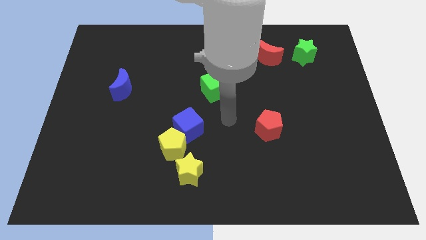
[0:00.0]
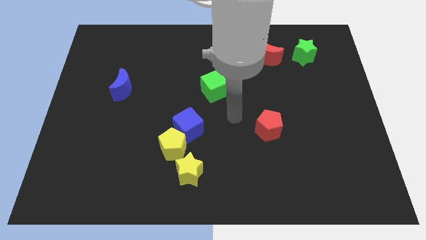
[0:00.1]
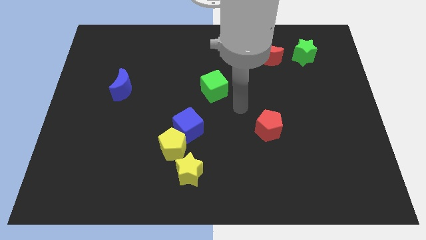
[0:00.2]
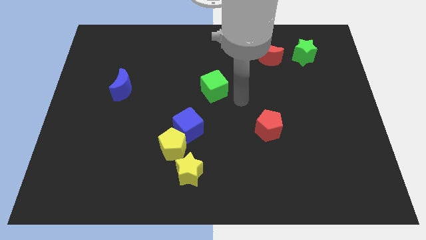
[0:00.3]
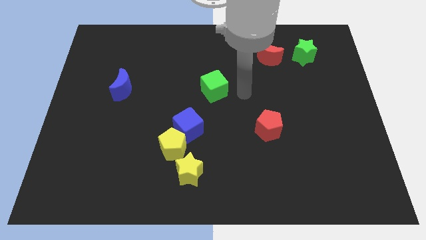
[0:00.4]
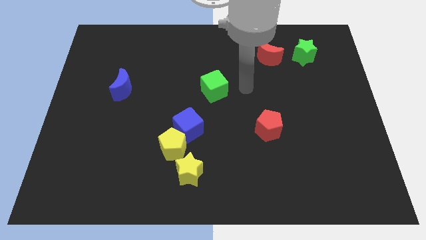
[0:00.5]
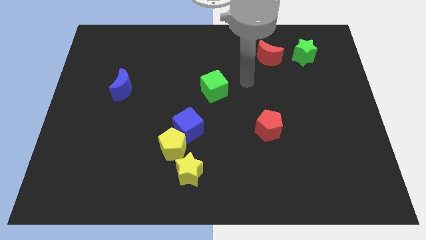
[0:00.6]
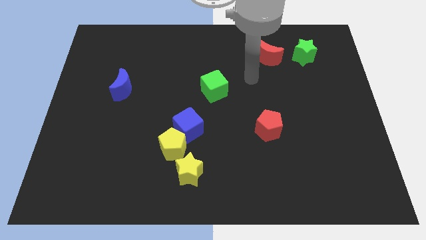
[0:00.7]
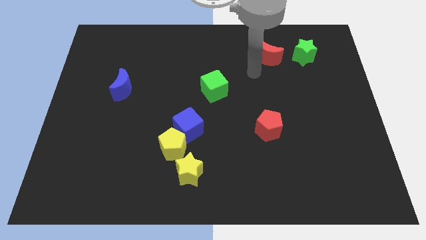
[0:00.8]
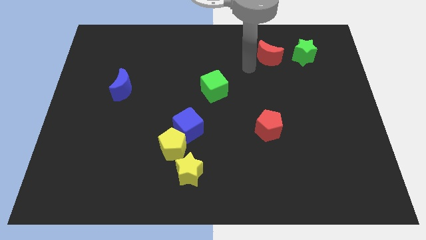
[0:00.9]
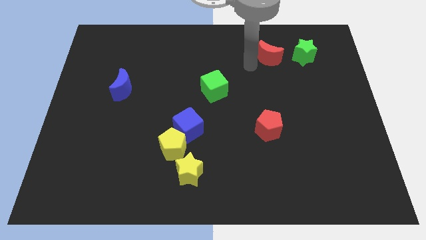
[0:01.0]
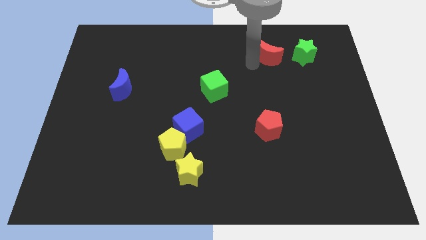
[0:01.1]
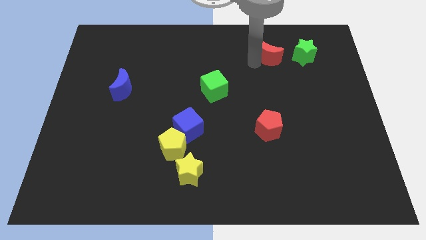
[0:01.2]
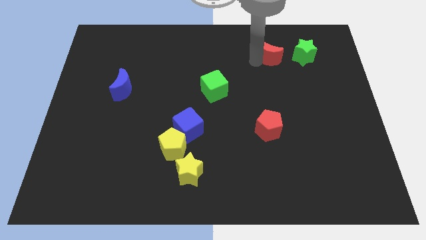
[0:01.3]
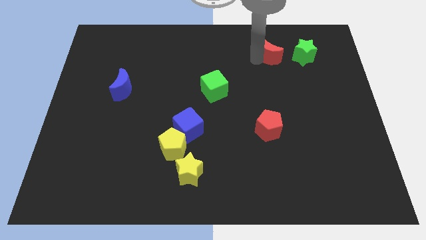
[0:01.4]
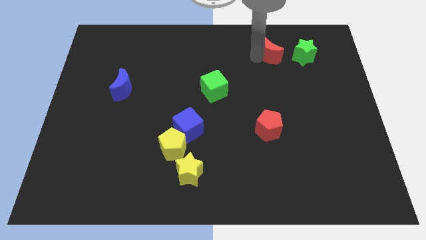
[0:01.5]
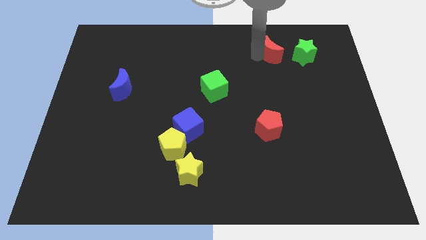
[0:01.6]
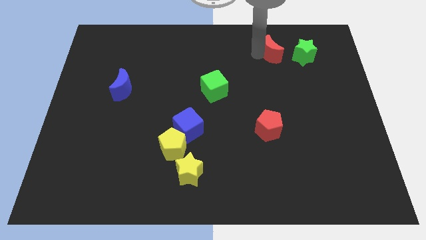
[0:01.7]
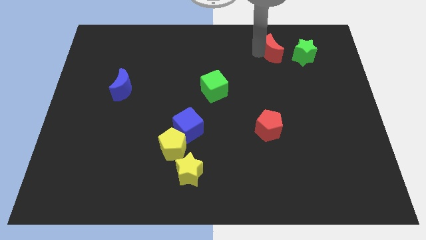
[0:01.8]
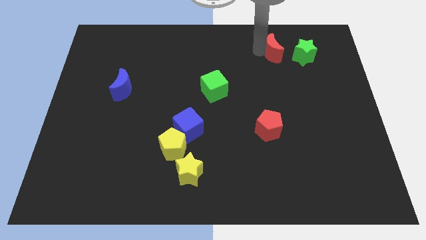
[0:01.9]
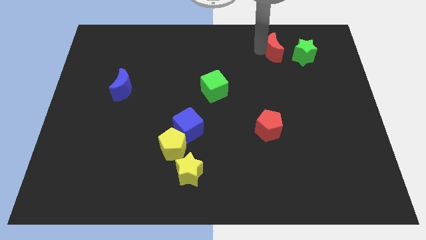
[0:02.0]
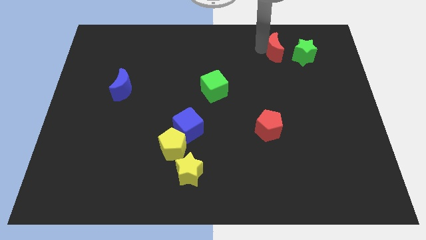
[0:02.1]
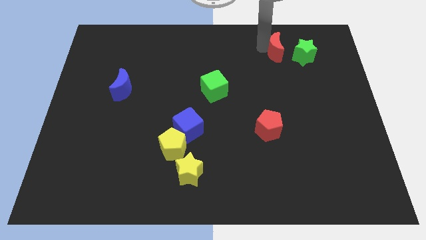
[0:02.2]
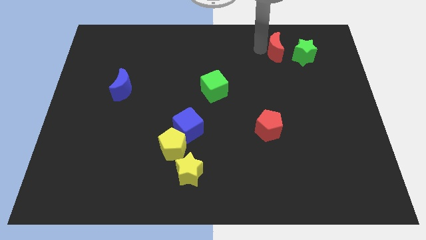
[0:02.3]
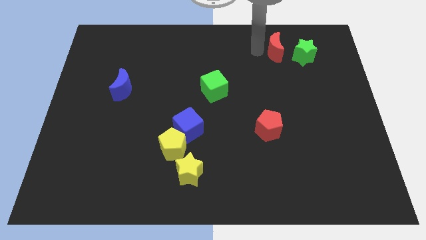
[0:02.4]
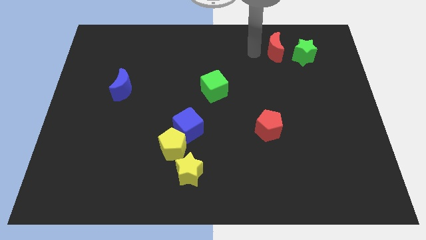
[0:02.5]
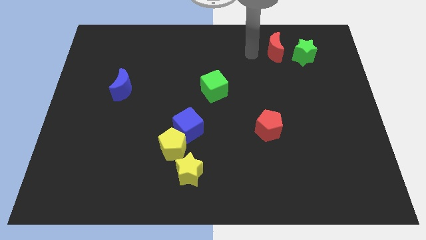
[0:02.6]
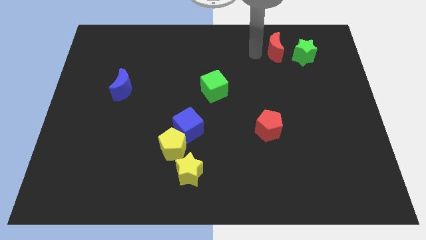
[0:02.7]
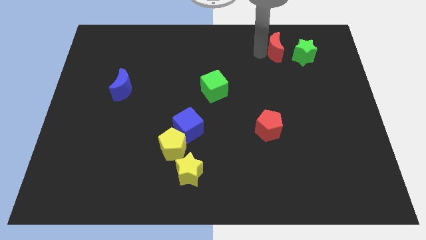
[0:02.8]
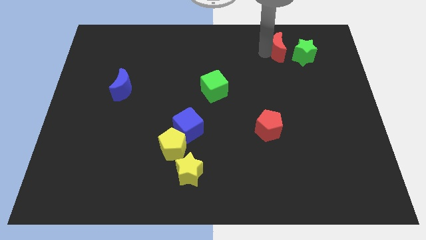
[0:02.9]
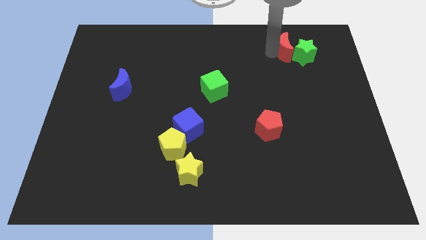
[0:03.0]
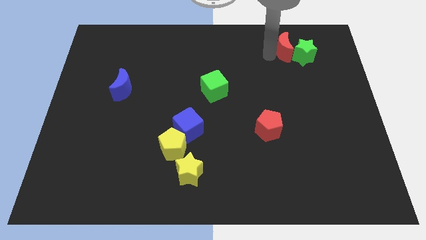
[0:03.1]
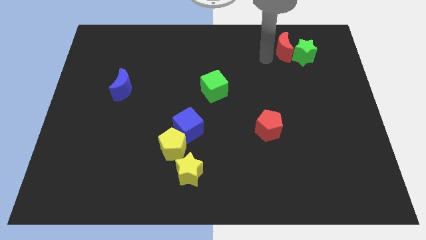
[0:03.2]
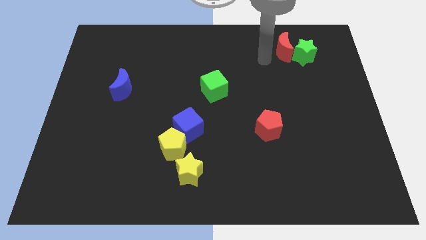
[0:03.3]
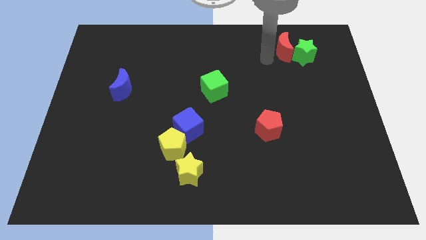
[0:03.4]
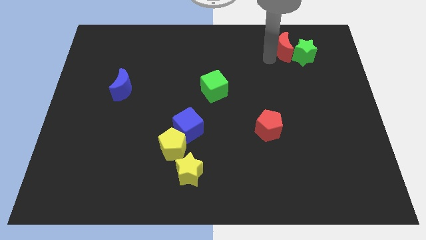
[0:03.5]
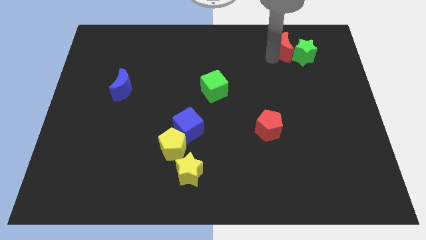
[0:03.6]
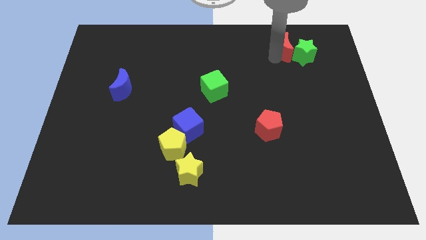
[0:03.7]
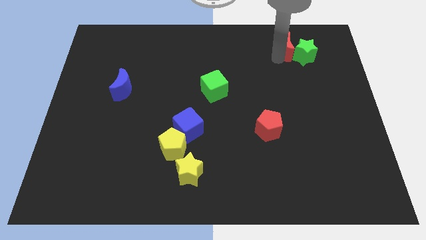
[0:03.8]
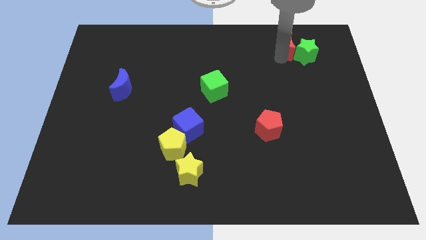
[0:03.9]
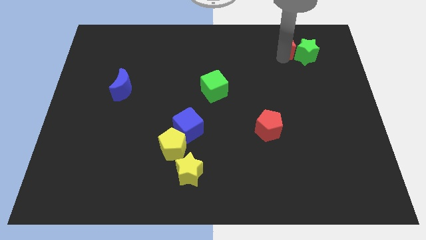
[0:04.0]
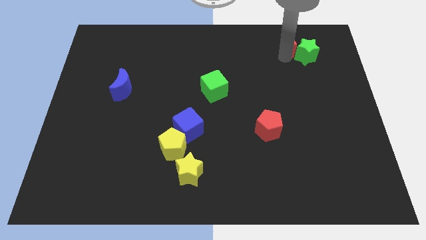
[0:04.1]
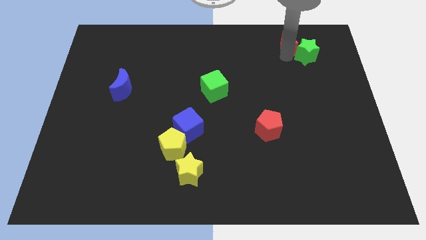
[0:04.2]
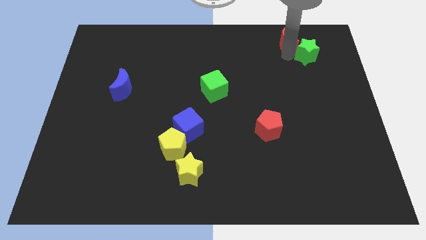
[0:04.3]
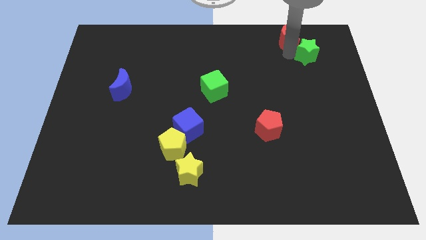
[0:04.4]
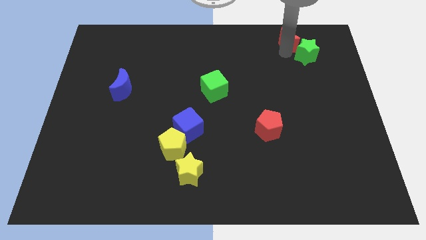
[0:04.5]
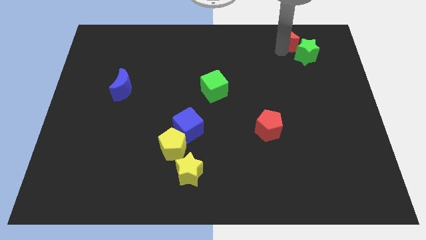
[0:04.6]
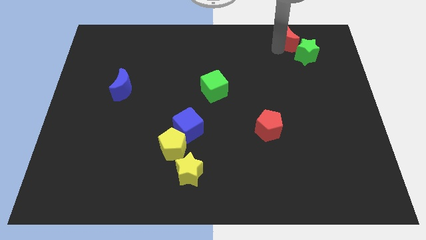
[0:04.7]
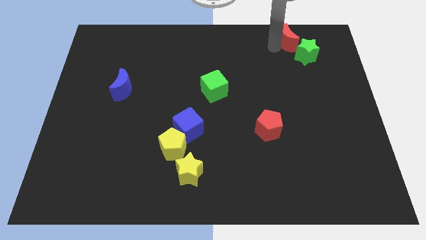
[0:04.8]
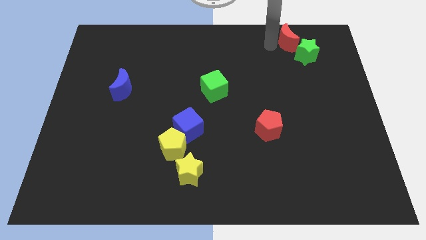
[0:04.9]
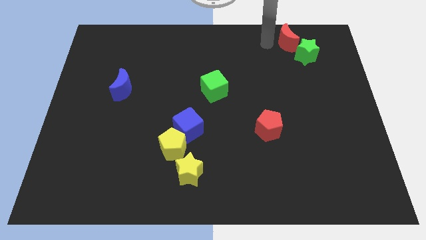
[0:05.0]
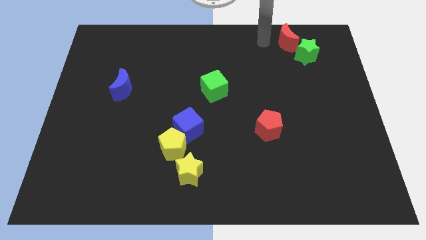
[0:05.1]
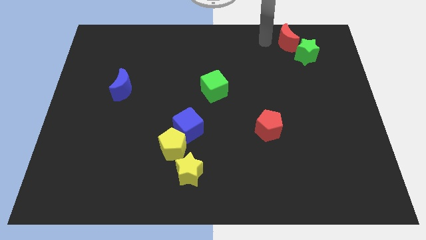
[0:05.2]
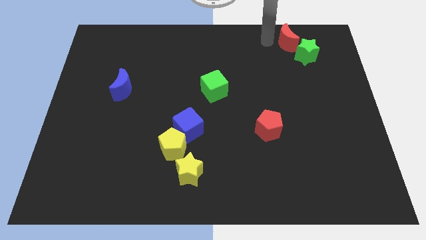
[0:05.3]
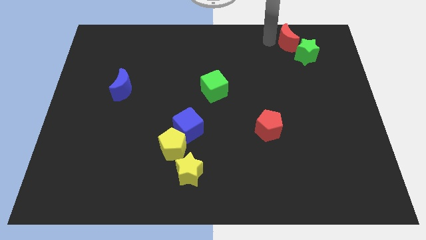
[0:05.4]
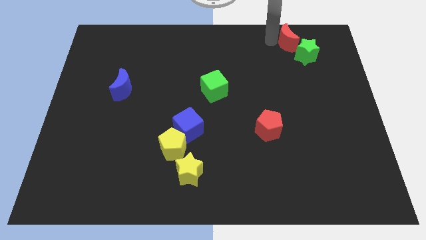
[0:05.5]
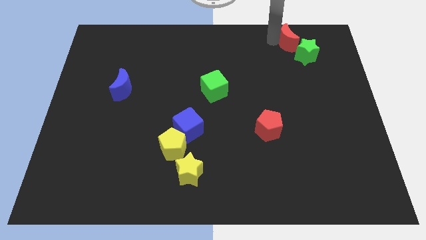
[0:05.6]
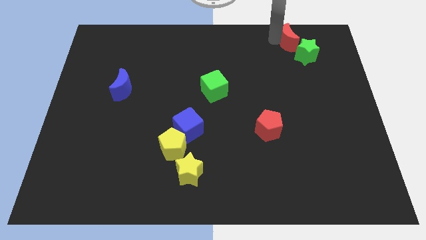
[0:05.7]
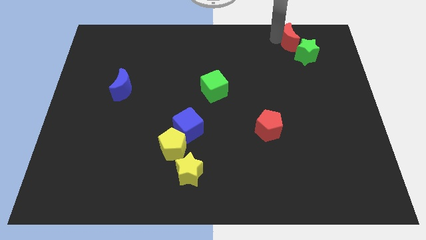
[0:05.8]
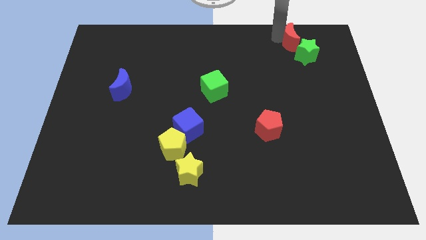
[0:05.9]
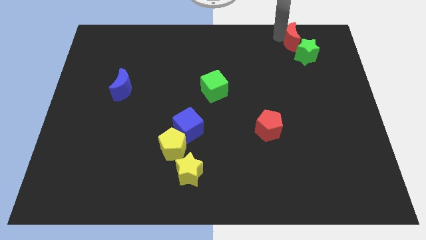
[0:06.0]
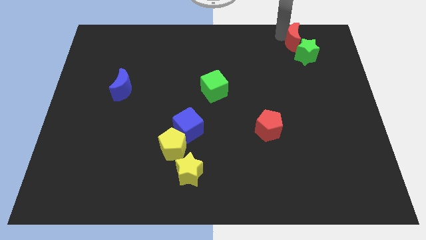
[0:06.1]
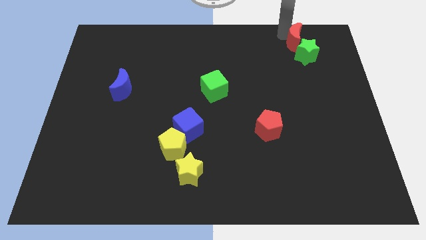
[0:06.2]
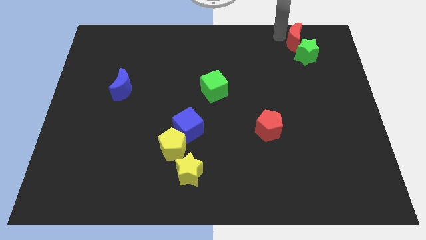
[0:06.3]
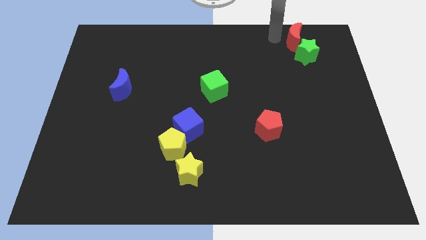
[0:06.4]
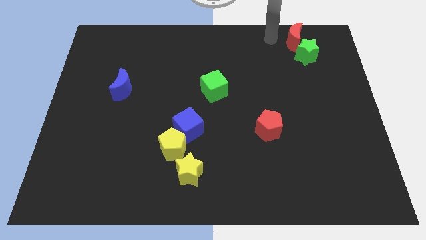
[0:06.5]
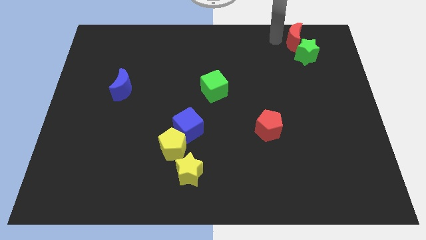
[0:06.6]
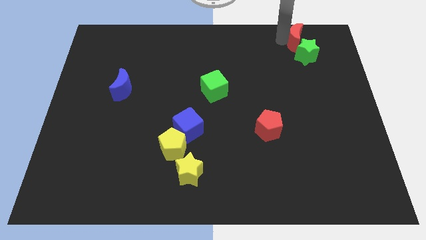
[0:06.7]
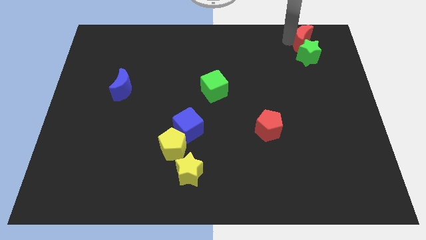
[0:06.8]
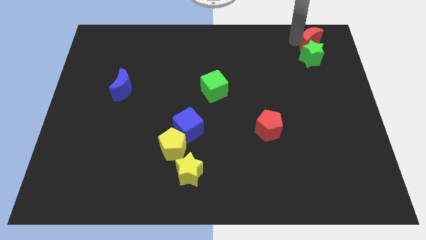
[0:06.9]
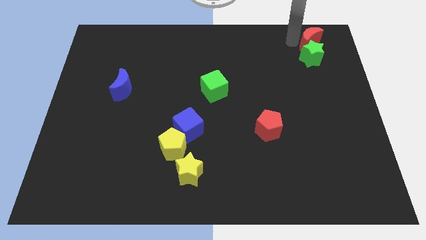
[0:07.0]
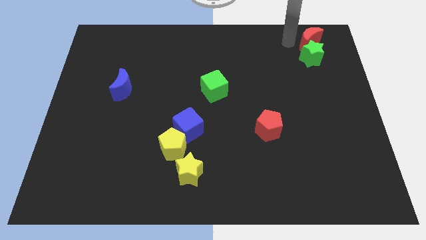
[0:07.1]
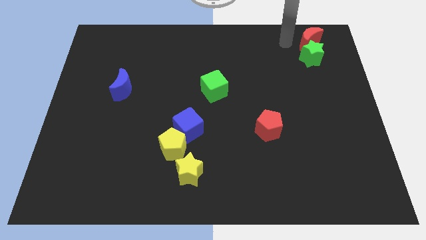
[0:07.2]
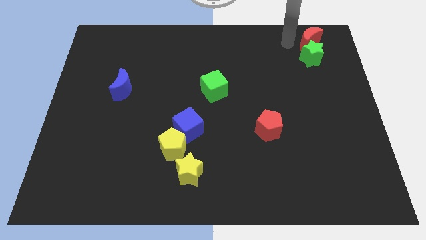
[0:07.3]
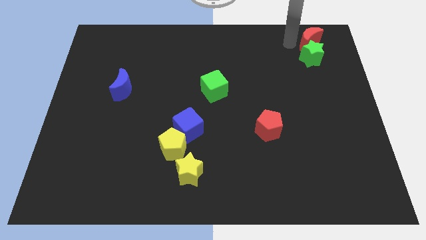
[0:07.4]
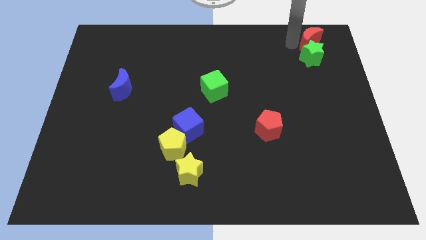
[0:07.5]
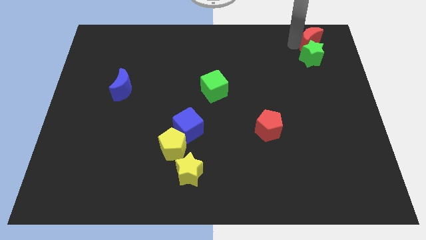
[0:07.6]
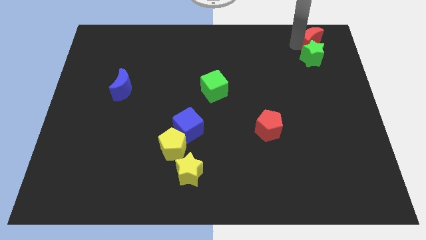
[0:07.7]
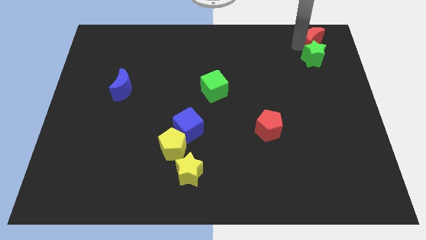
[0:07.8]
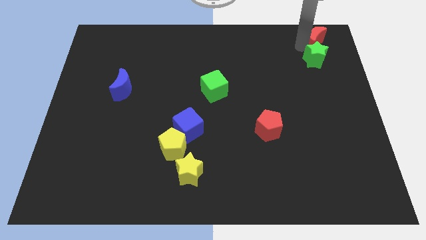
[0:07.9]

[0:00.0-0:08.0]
push the red moon to the top right

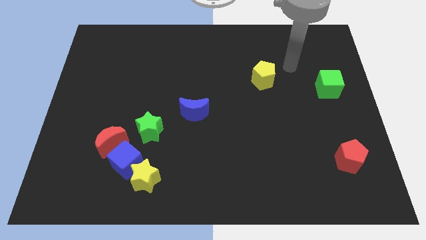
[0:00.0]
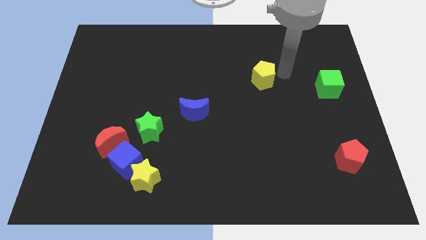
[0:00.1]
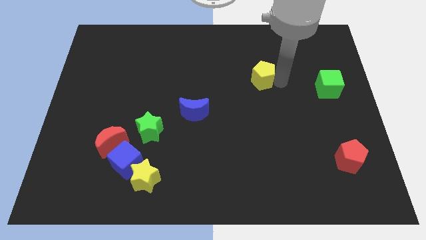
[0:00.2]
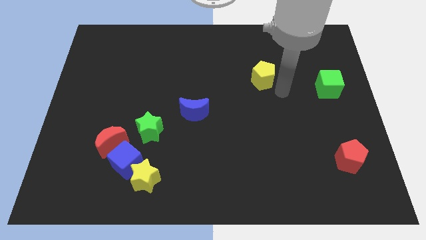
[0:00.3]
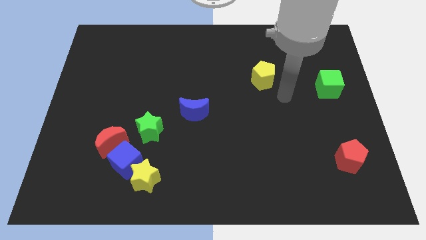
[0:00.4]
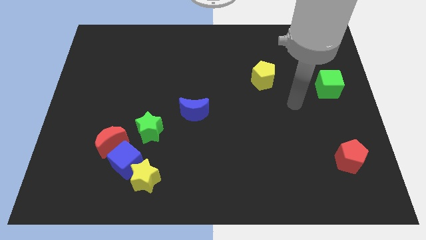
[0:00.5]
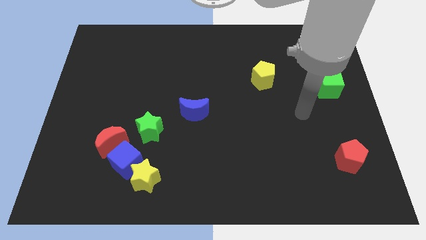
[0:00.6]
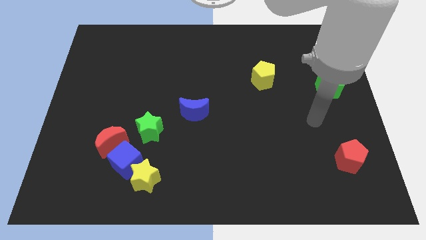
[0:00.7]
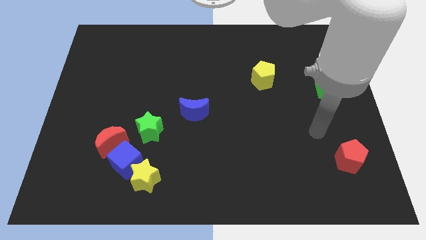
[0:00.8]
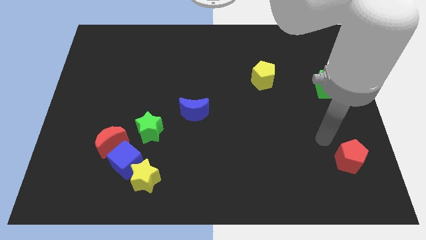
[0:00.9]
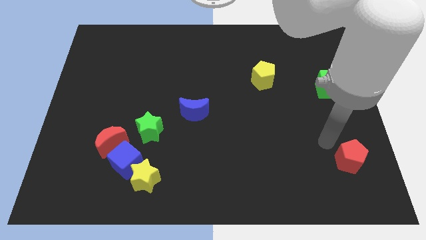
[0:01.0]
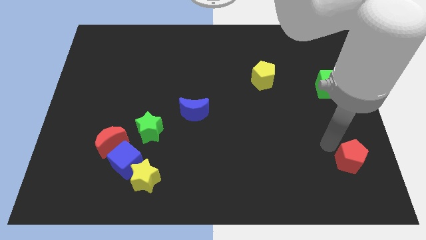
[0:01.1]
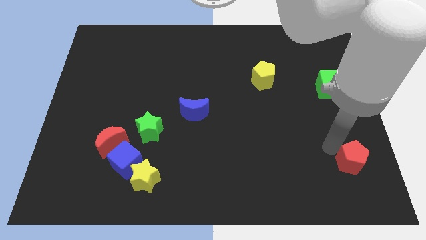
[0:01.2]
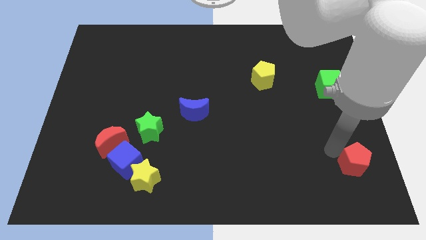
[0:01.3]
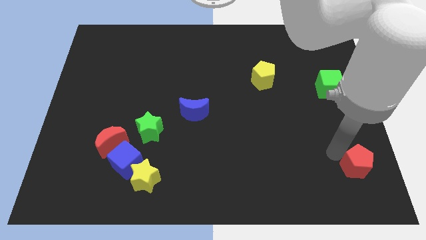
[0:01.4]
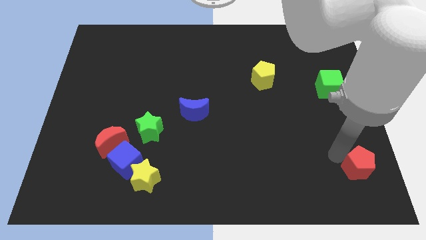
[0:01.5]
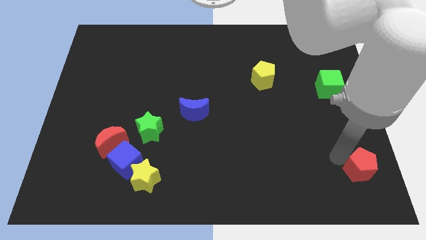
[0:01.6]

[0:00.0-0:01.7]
put the red pentagon to the bottom right corner
